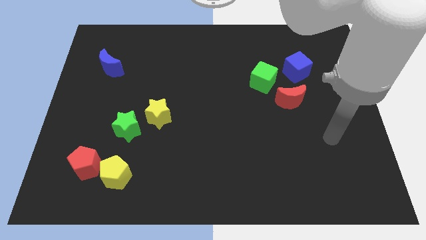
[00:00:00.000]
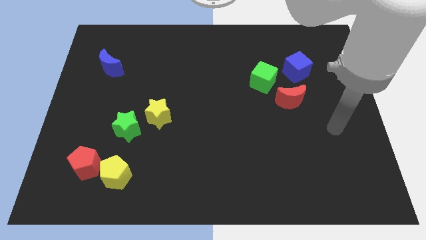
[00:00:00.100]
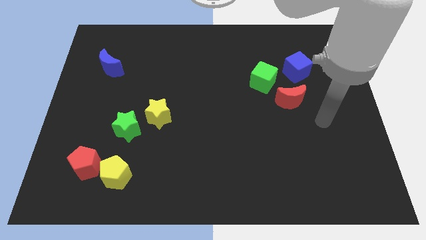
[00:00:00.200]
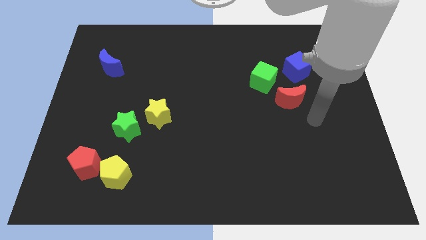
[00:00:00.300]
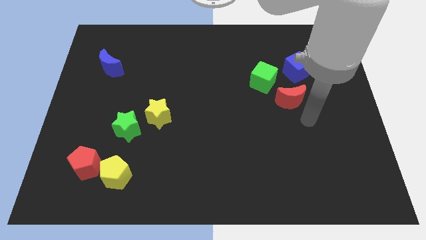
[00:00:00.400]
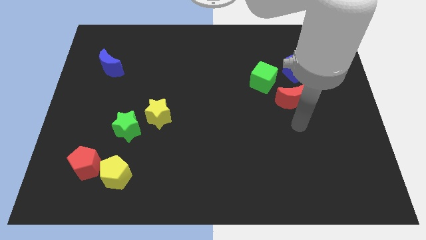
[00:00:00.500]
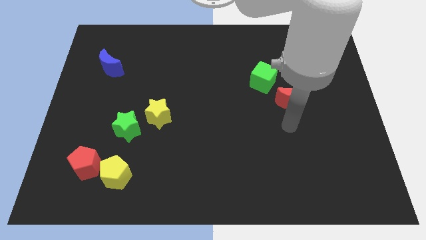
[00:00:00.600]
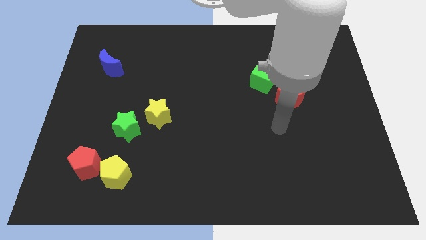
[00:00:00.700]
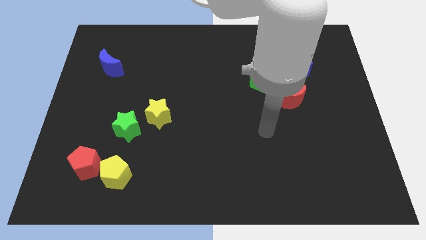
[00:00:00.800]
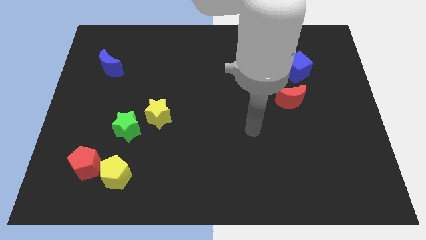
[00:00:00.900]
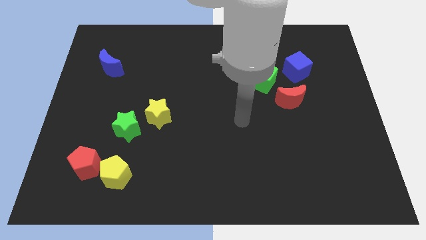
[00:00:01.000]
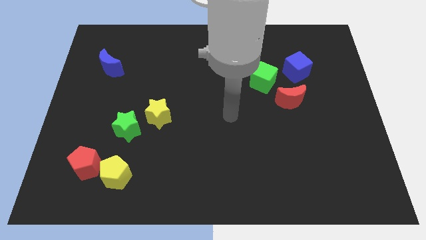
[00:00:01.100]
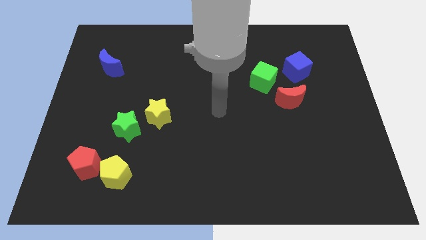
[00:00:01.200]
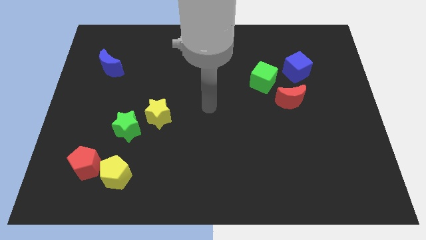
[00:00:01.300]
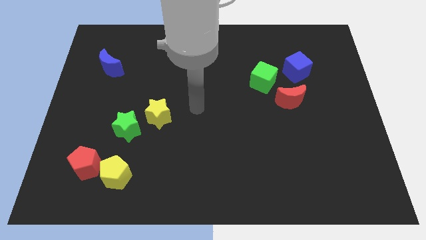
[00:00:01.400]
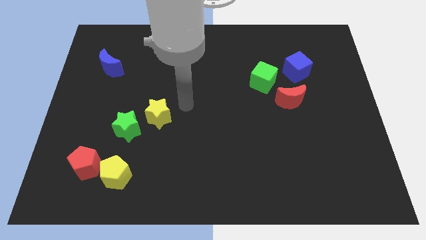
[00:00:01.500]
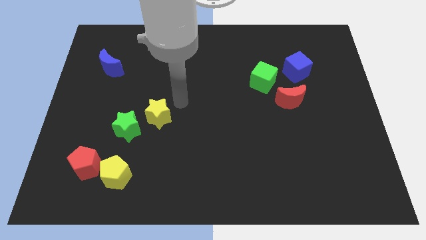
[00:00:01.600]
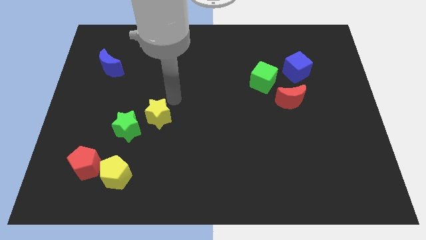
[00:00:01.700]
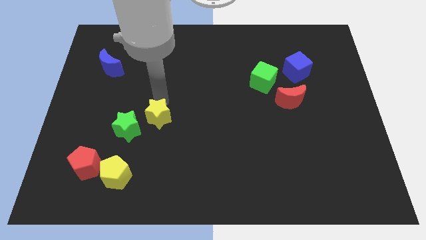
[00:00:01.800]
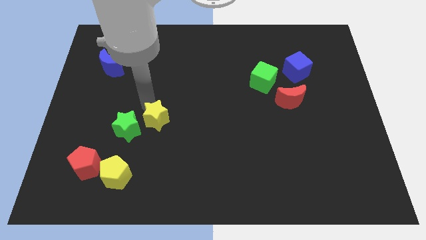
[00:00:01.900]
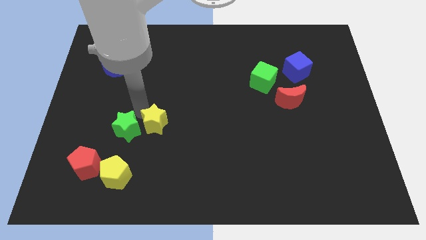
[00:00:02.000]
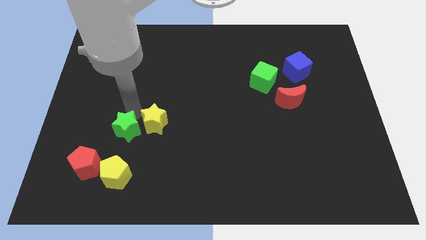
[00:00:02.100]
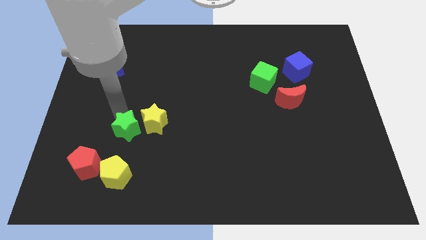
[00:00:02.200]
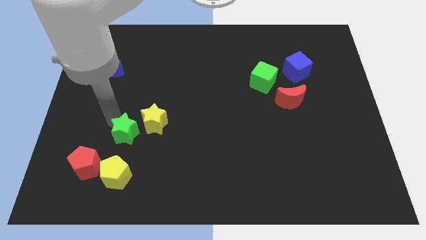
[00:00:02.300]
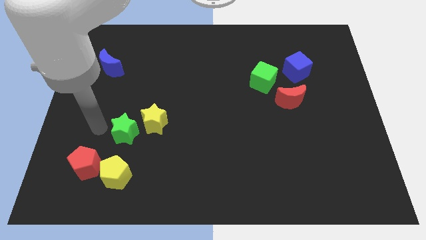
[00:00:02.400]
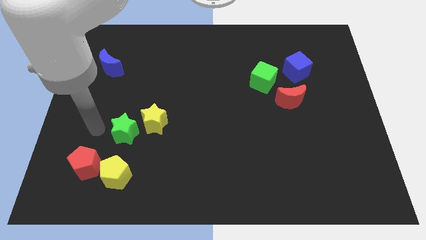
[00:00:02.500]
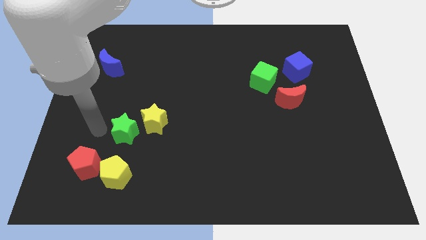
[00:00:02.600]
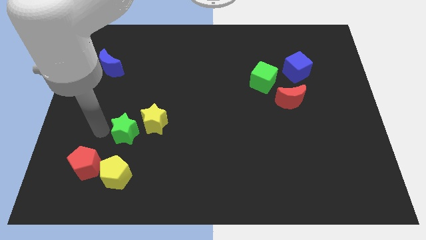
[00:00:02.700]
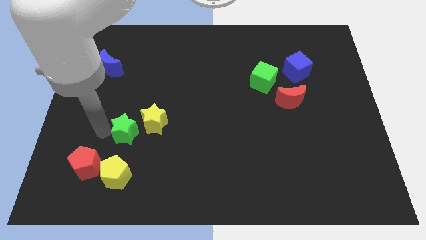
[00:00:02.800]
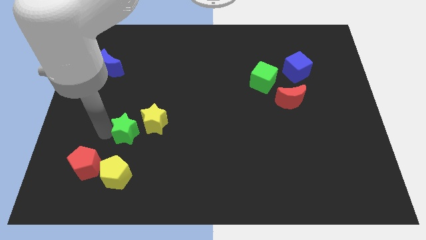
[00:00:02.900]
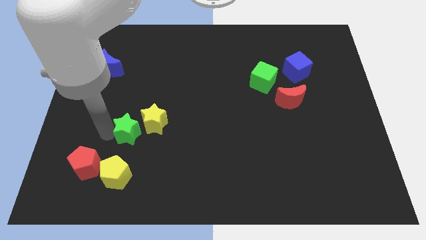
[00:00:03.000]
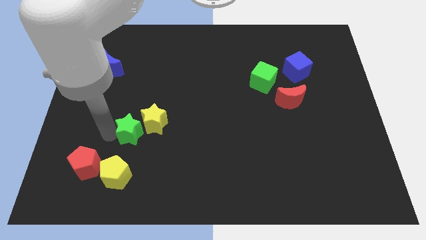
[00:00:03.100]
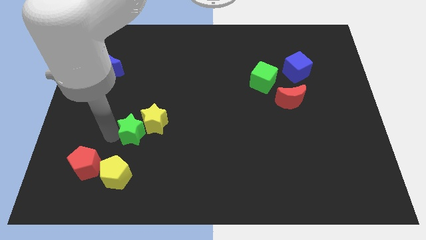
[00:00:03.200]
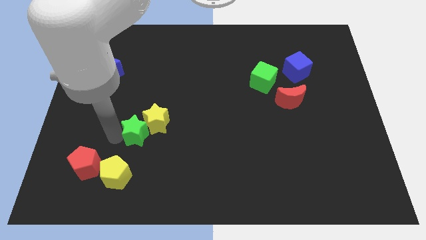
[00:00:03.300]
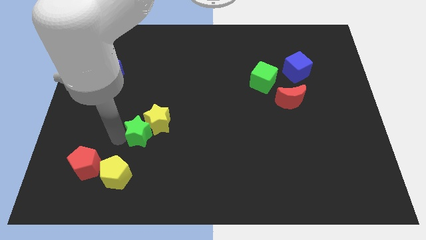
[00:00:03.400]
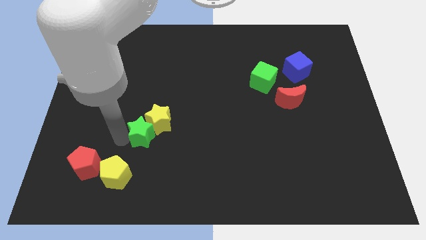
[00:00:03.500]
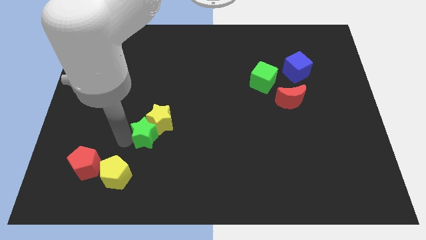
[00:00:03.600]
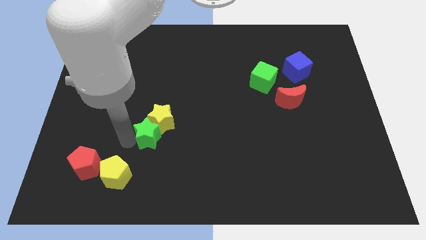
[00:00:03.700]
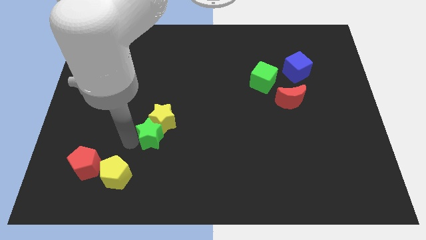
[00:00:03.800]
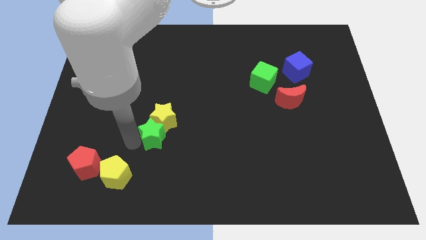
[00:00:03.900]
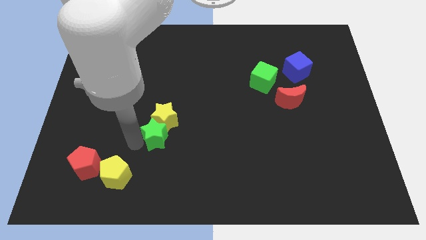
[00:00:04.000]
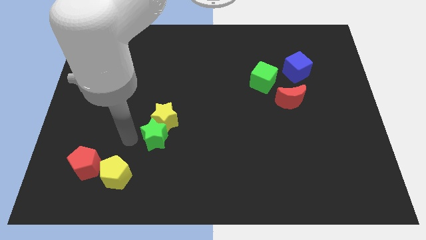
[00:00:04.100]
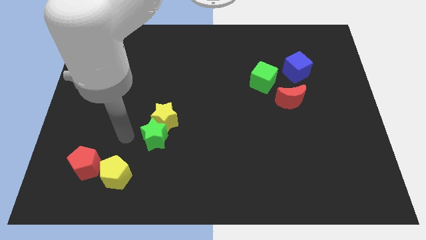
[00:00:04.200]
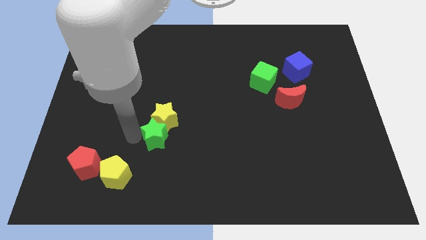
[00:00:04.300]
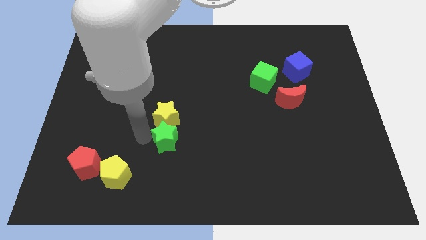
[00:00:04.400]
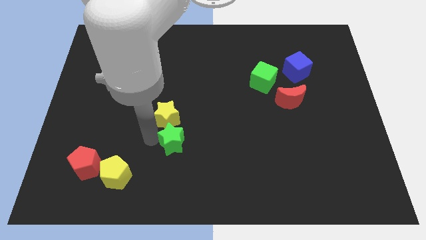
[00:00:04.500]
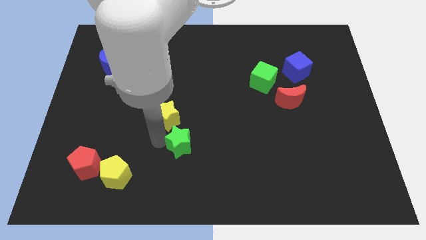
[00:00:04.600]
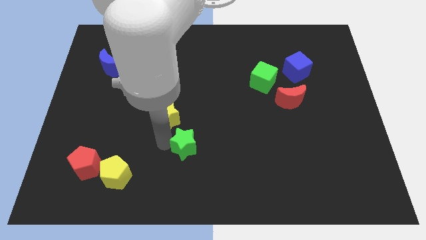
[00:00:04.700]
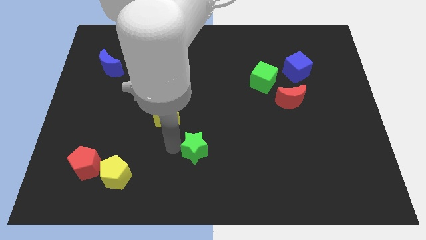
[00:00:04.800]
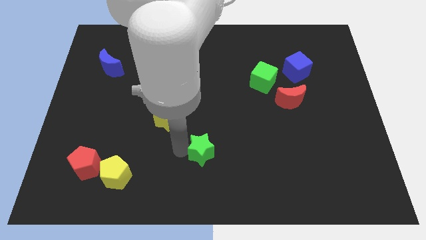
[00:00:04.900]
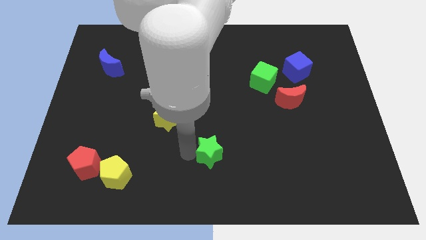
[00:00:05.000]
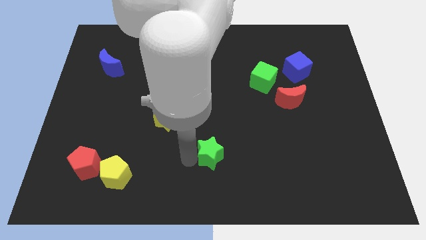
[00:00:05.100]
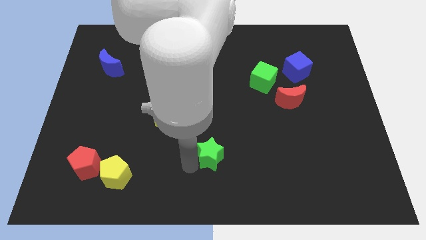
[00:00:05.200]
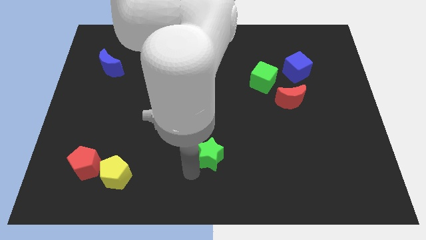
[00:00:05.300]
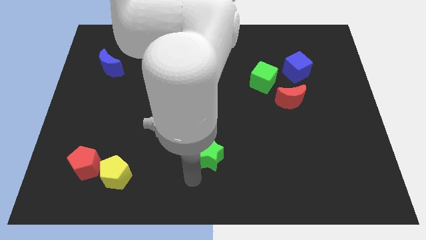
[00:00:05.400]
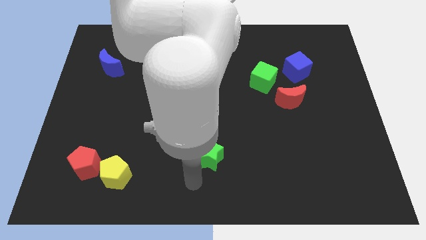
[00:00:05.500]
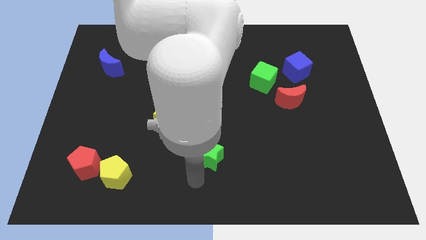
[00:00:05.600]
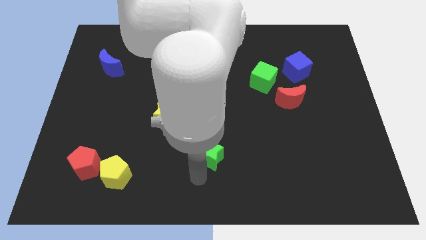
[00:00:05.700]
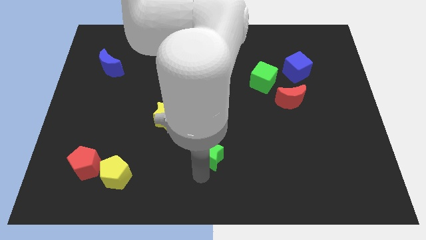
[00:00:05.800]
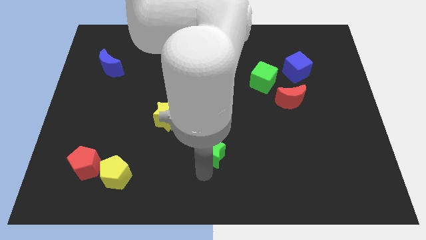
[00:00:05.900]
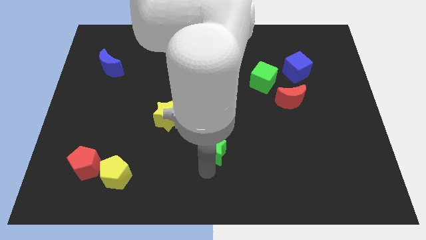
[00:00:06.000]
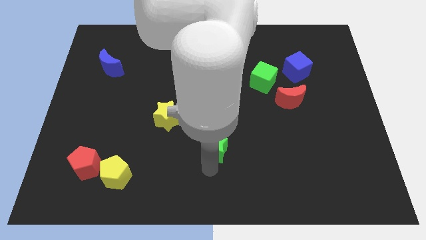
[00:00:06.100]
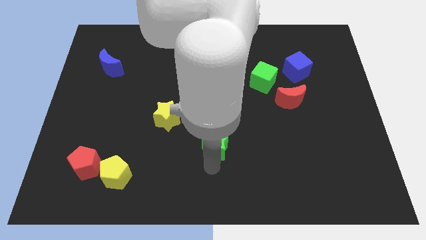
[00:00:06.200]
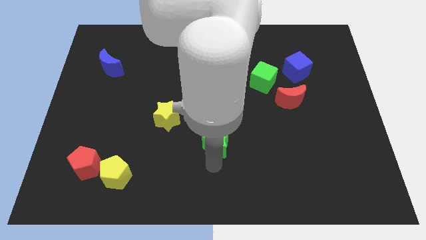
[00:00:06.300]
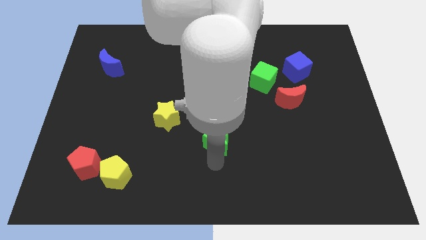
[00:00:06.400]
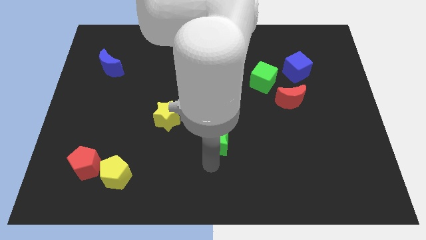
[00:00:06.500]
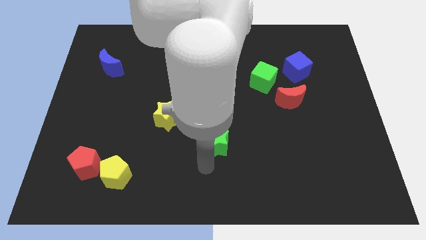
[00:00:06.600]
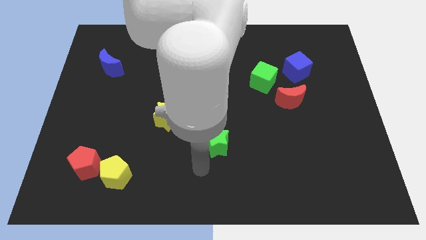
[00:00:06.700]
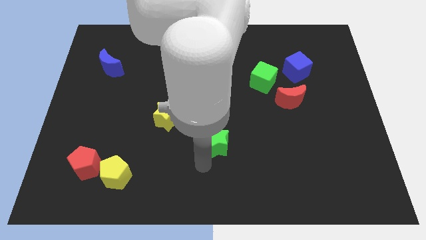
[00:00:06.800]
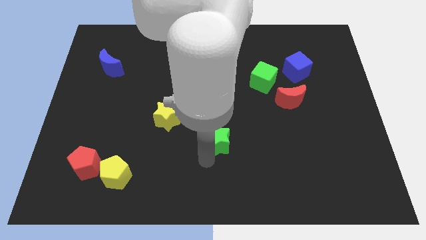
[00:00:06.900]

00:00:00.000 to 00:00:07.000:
push the green star right

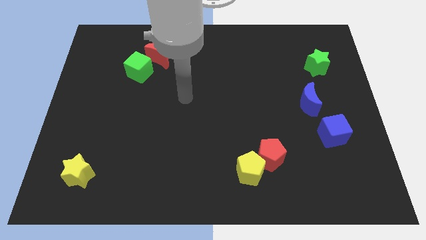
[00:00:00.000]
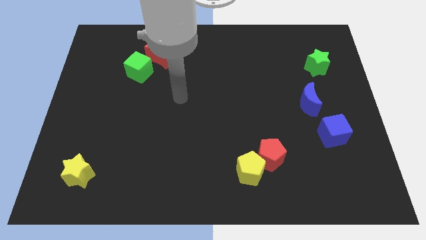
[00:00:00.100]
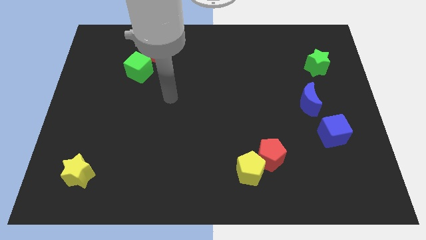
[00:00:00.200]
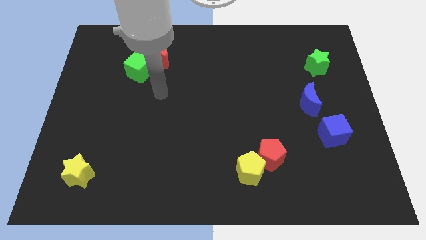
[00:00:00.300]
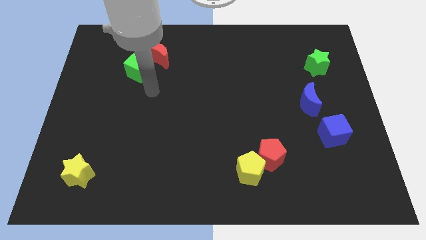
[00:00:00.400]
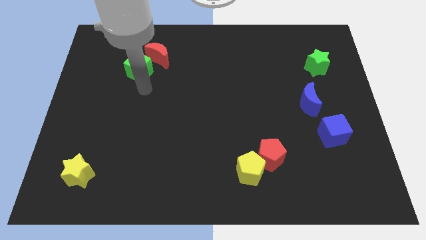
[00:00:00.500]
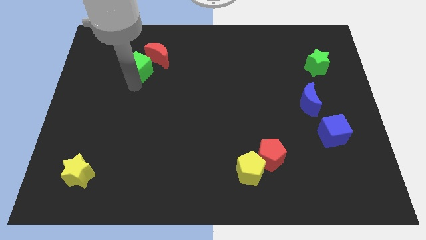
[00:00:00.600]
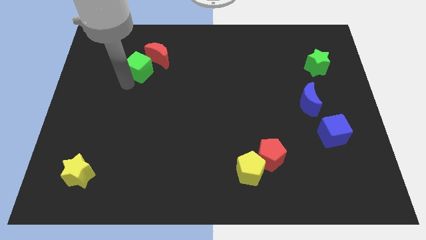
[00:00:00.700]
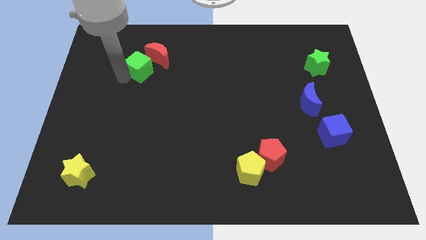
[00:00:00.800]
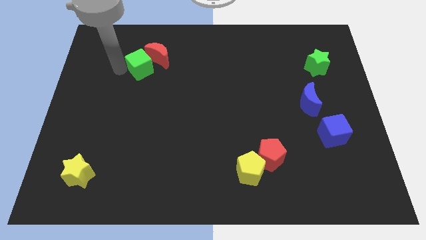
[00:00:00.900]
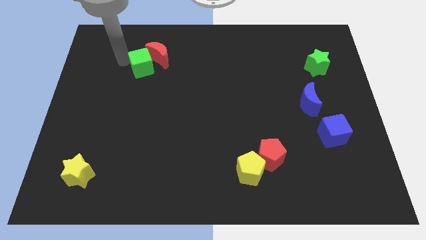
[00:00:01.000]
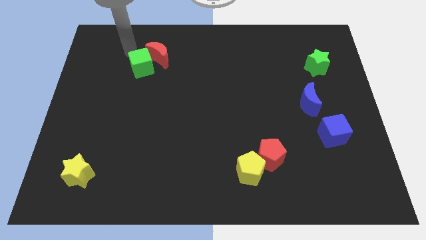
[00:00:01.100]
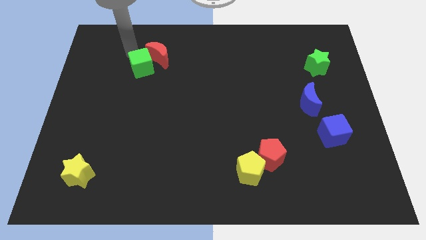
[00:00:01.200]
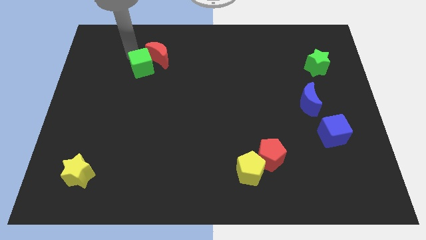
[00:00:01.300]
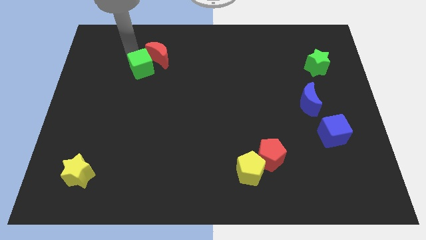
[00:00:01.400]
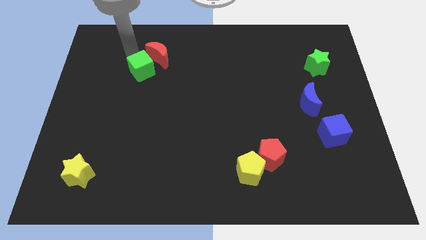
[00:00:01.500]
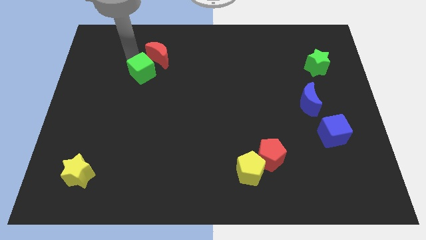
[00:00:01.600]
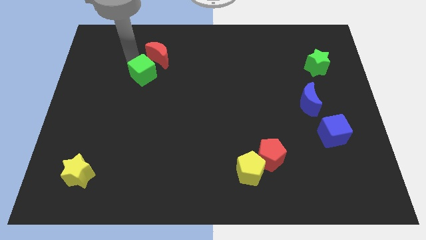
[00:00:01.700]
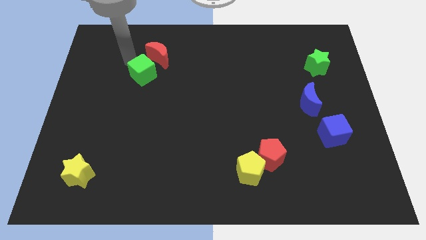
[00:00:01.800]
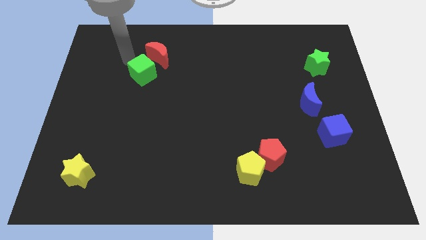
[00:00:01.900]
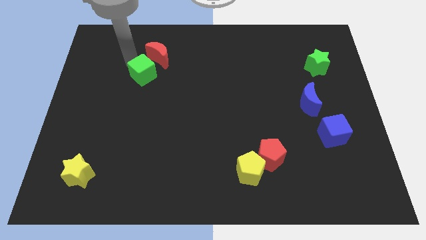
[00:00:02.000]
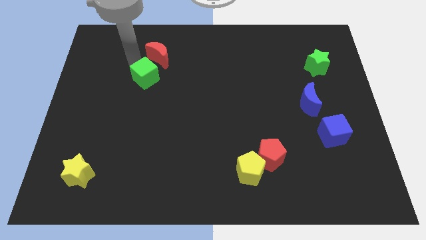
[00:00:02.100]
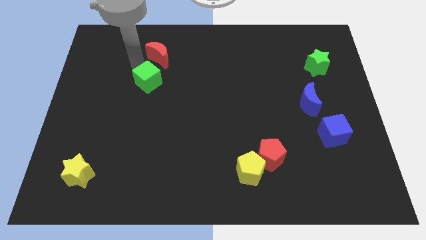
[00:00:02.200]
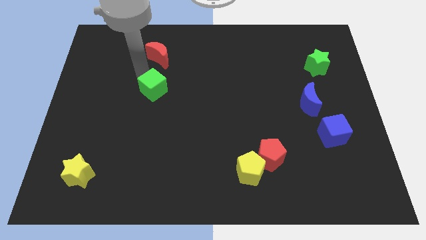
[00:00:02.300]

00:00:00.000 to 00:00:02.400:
move the green cube slightly down and then to the right
